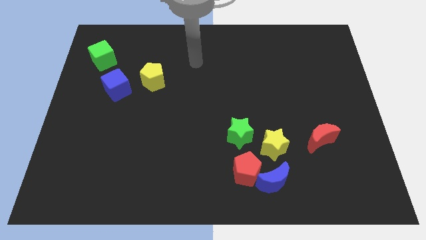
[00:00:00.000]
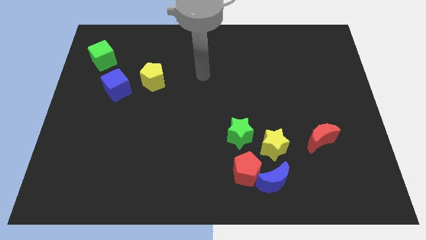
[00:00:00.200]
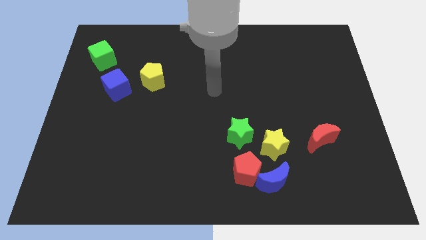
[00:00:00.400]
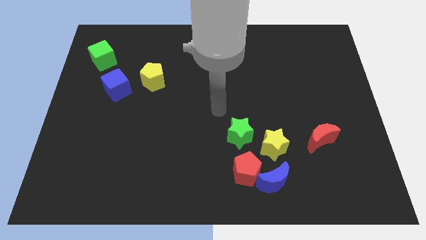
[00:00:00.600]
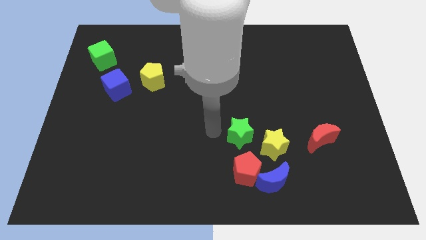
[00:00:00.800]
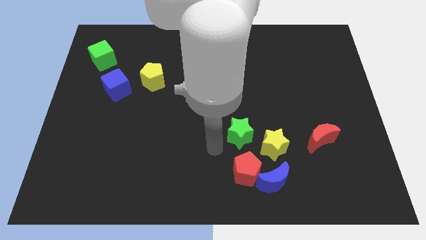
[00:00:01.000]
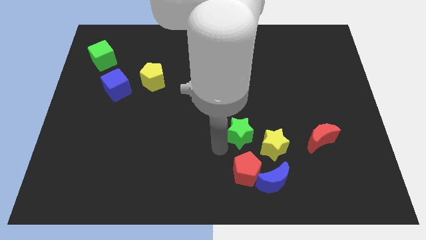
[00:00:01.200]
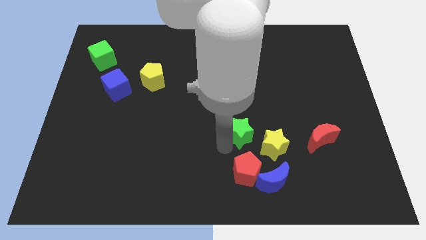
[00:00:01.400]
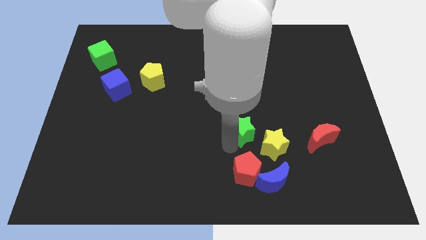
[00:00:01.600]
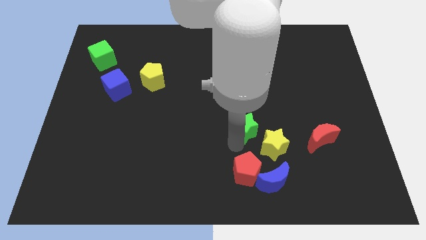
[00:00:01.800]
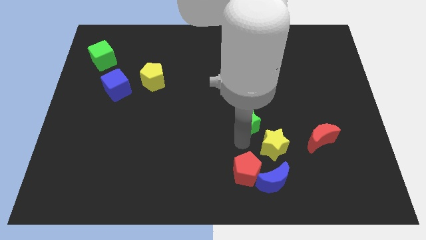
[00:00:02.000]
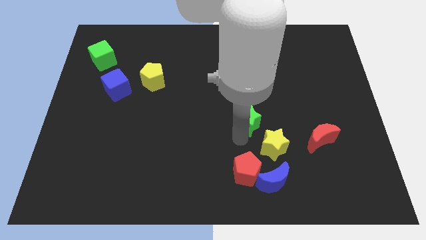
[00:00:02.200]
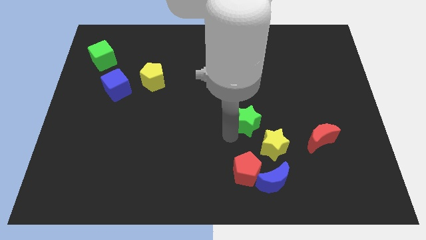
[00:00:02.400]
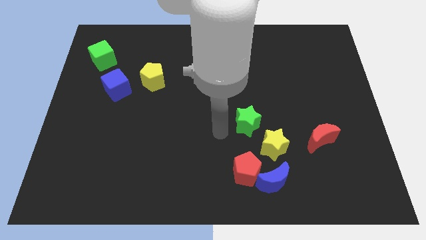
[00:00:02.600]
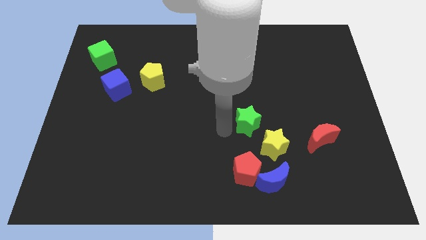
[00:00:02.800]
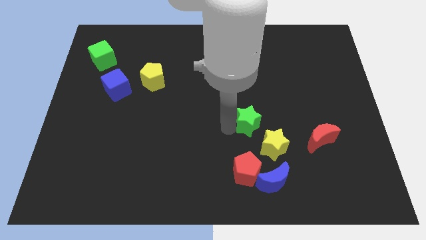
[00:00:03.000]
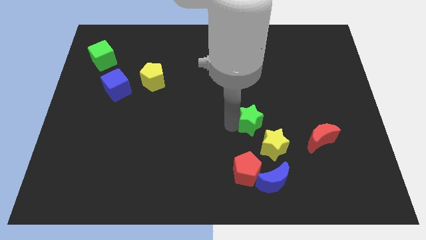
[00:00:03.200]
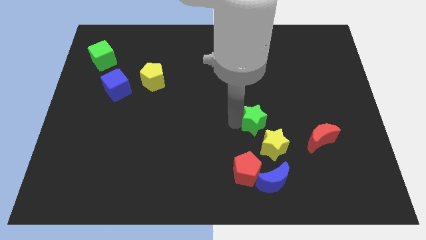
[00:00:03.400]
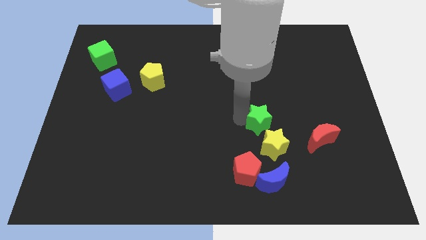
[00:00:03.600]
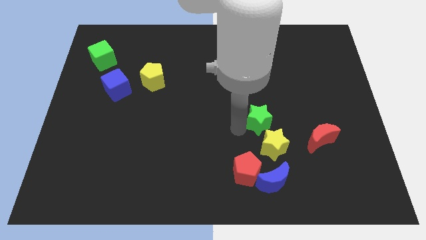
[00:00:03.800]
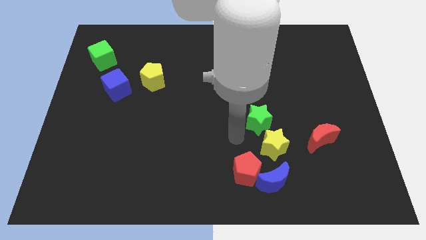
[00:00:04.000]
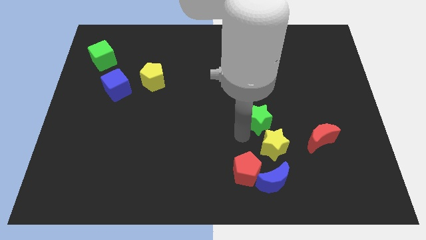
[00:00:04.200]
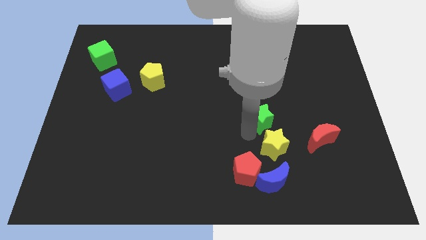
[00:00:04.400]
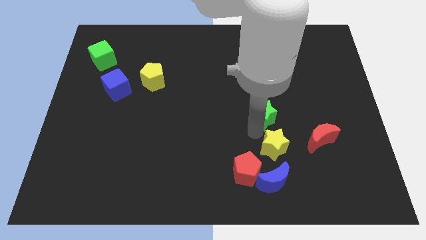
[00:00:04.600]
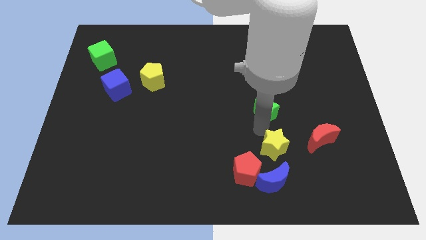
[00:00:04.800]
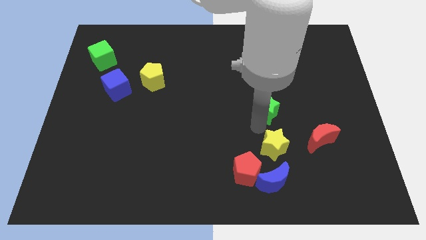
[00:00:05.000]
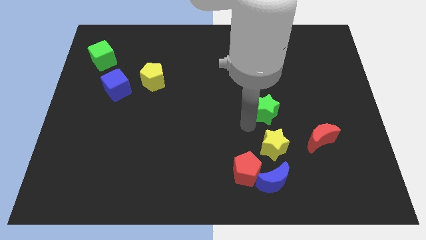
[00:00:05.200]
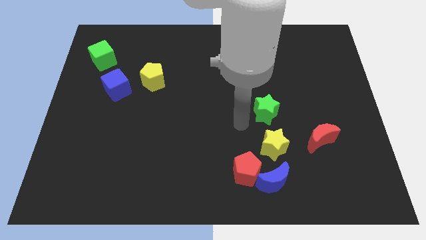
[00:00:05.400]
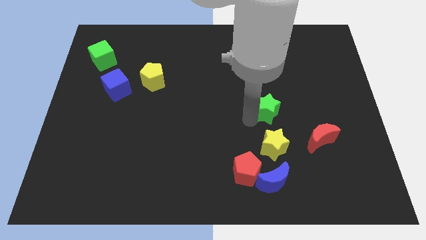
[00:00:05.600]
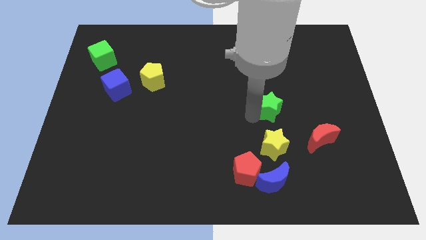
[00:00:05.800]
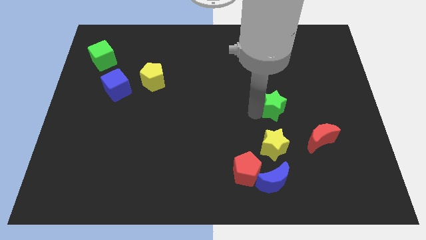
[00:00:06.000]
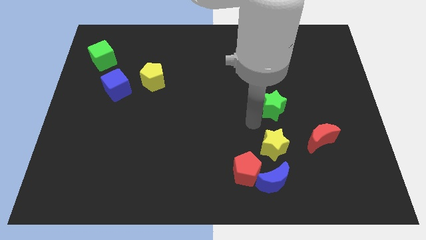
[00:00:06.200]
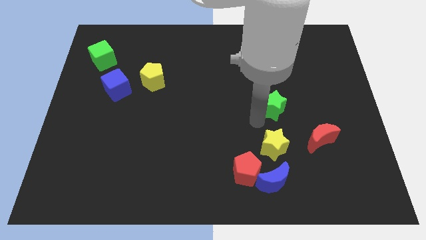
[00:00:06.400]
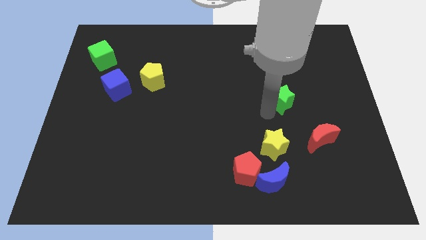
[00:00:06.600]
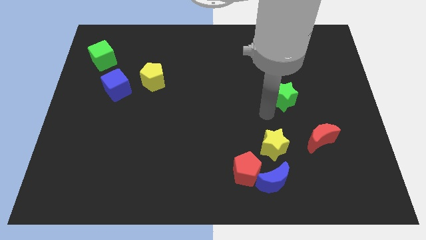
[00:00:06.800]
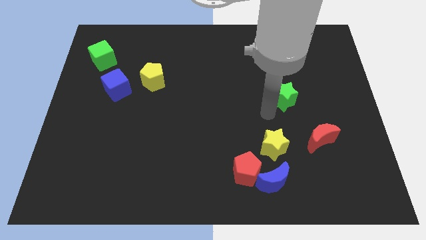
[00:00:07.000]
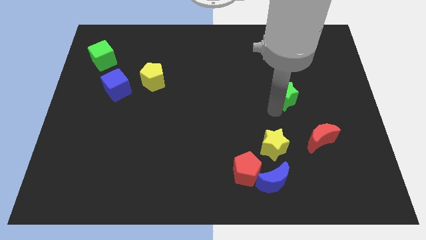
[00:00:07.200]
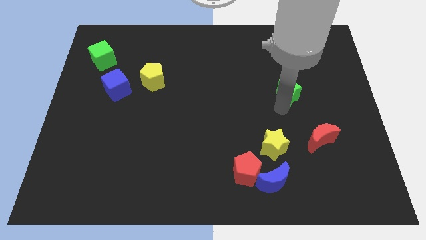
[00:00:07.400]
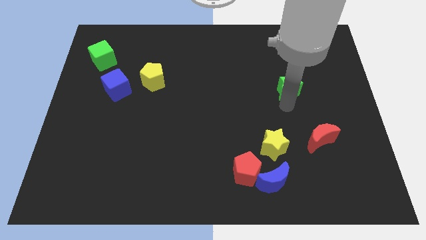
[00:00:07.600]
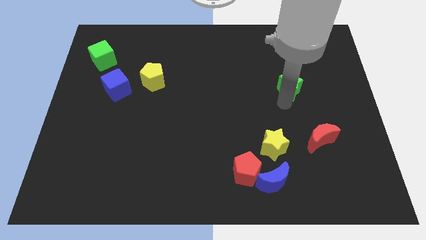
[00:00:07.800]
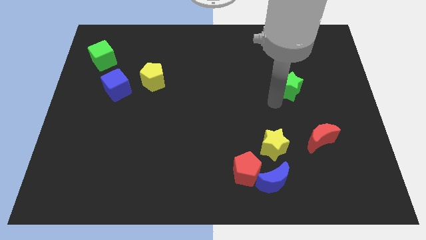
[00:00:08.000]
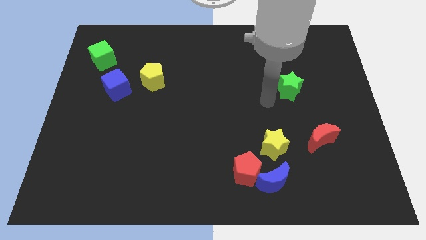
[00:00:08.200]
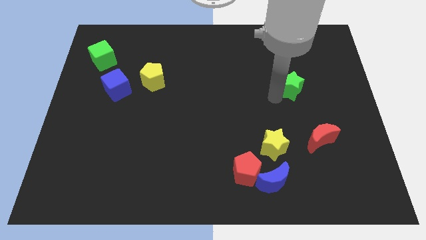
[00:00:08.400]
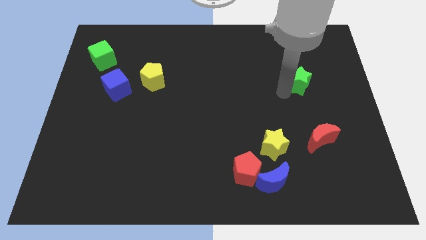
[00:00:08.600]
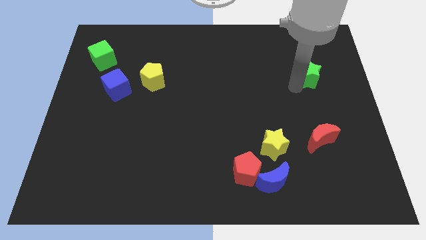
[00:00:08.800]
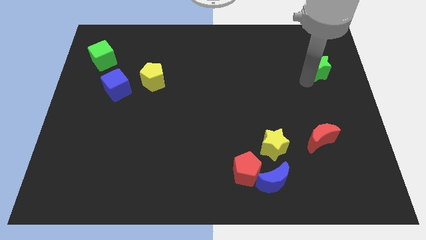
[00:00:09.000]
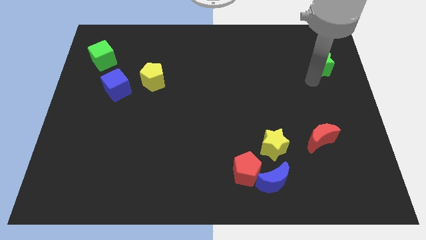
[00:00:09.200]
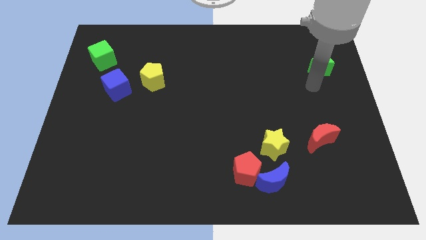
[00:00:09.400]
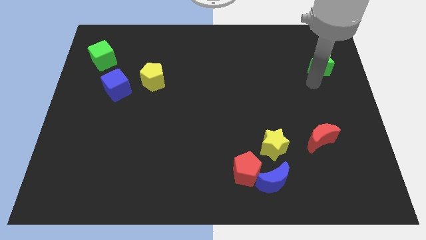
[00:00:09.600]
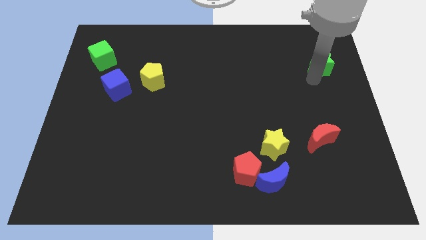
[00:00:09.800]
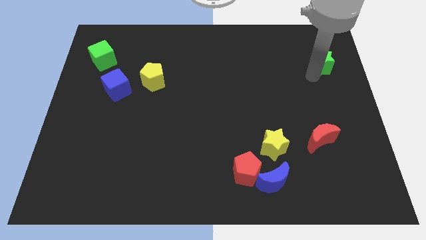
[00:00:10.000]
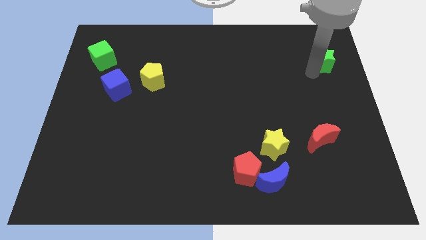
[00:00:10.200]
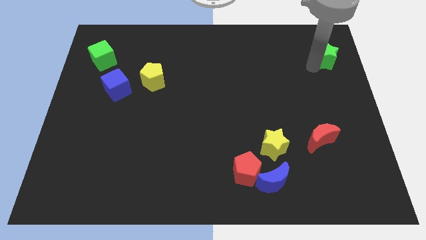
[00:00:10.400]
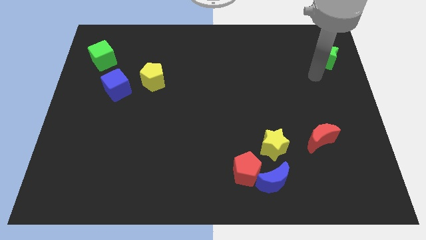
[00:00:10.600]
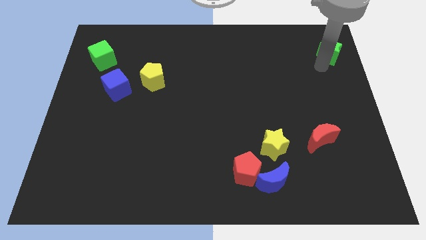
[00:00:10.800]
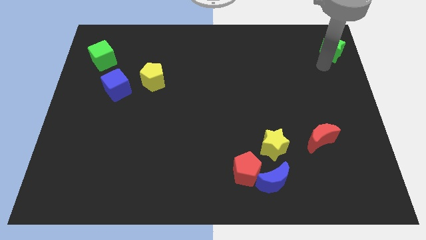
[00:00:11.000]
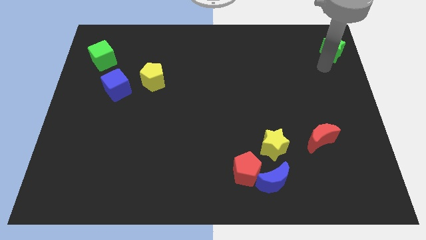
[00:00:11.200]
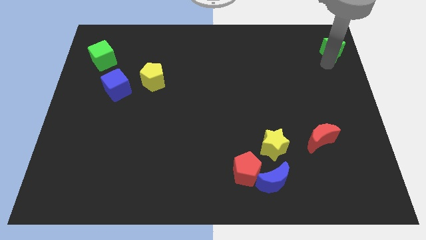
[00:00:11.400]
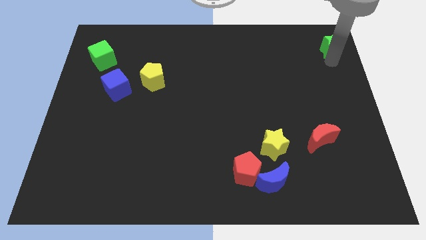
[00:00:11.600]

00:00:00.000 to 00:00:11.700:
put the green star to the top right corner

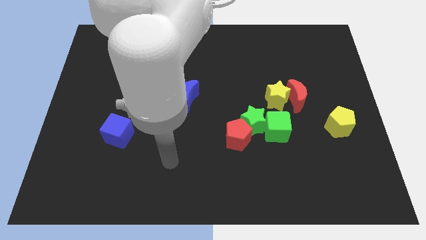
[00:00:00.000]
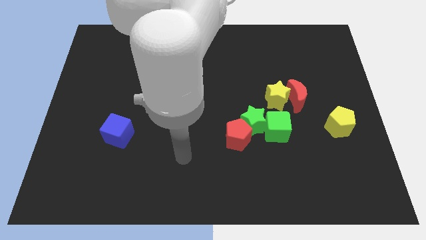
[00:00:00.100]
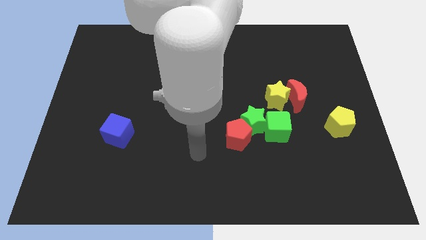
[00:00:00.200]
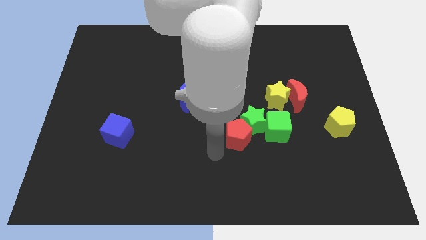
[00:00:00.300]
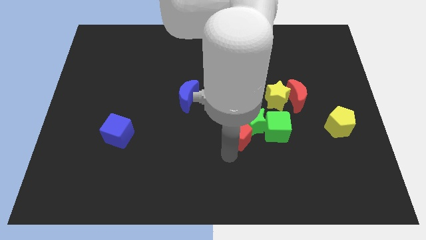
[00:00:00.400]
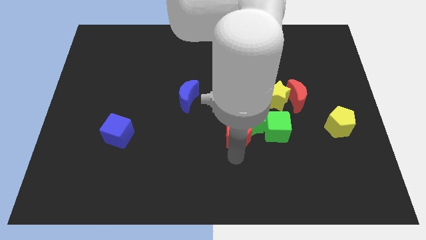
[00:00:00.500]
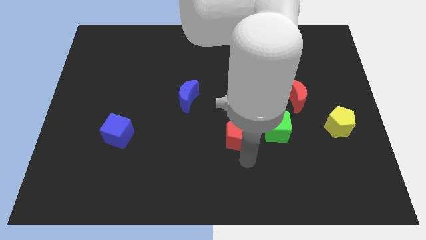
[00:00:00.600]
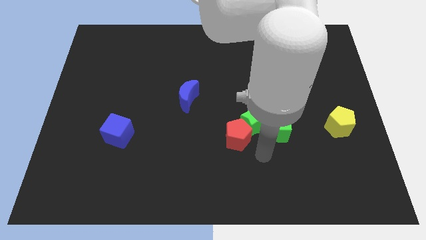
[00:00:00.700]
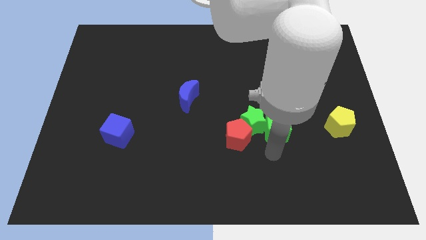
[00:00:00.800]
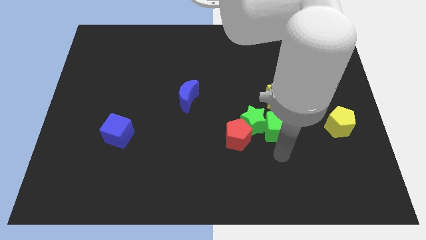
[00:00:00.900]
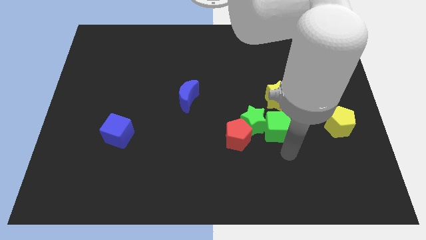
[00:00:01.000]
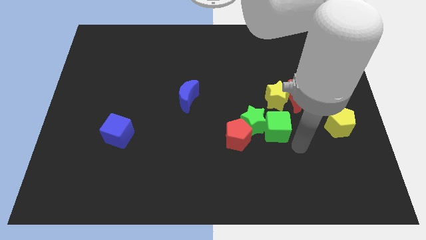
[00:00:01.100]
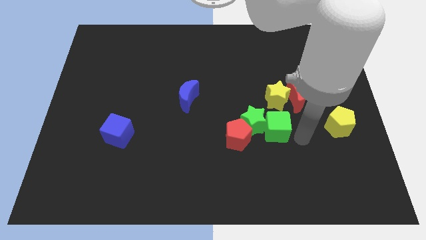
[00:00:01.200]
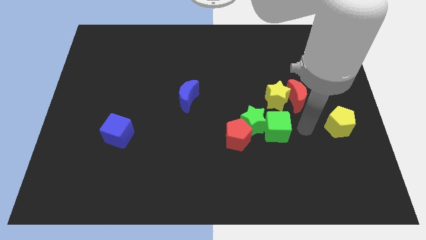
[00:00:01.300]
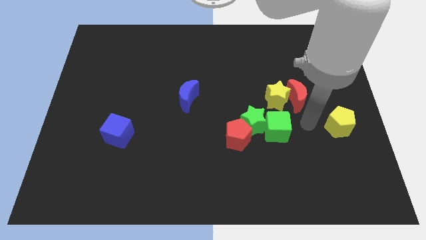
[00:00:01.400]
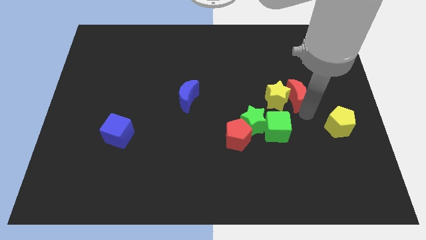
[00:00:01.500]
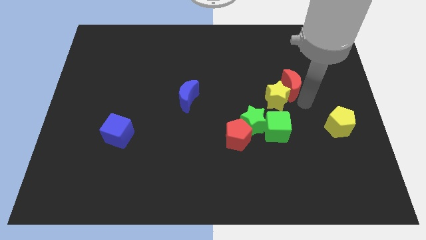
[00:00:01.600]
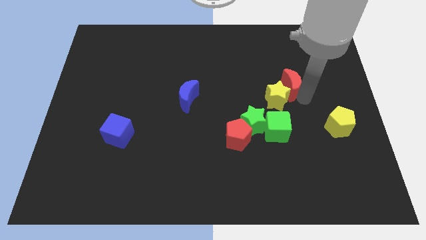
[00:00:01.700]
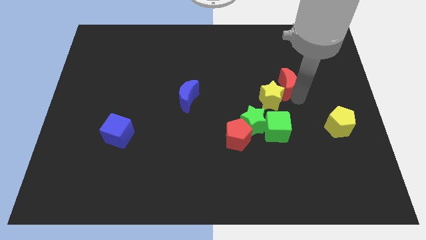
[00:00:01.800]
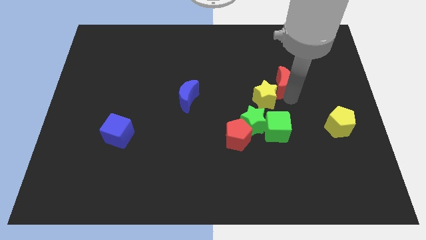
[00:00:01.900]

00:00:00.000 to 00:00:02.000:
put the yellow star to the center
